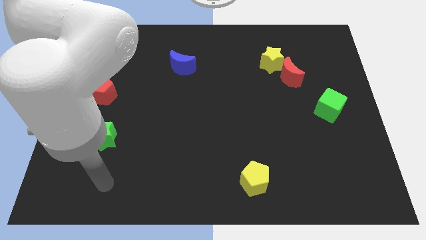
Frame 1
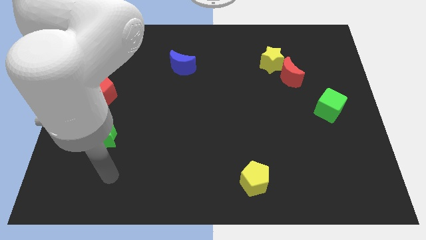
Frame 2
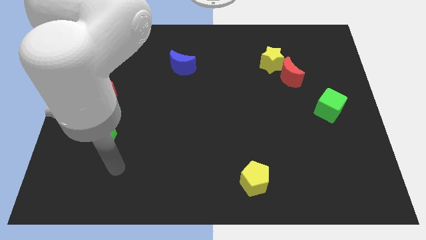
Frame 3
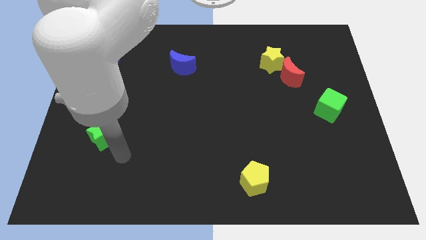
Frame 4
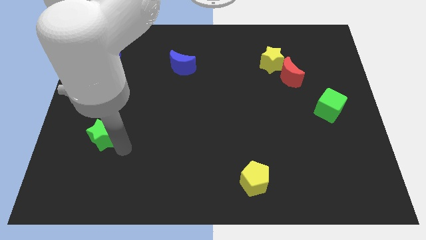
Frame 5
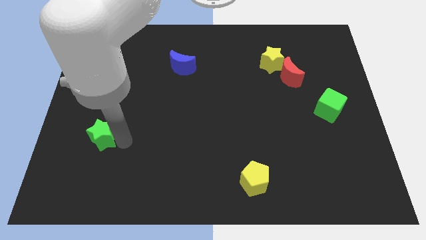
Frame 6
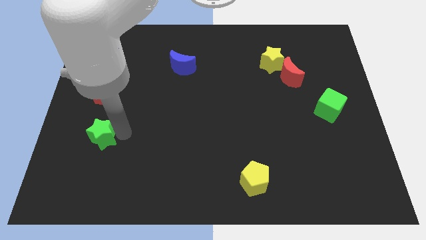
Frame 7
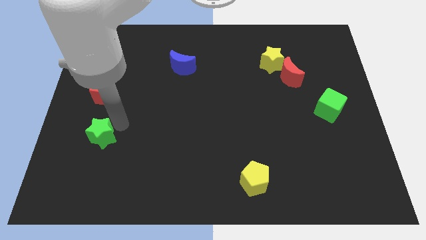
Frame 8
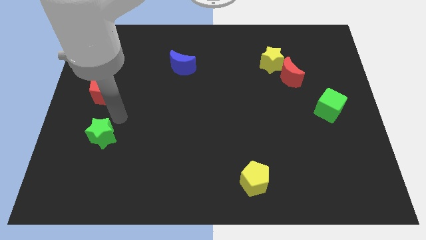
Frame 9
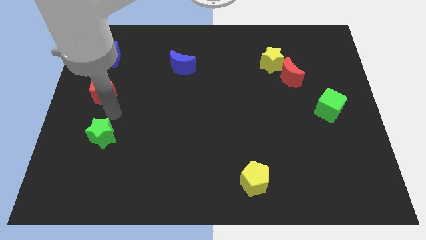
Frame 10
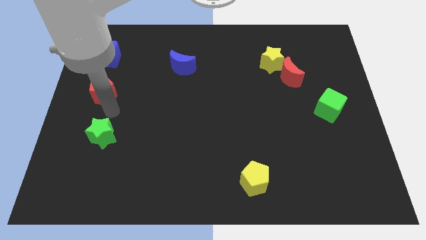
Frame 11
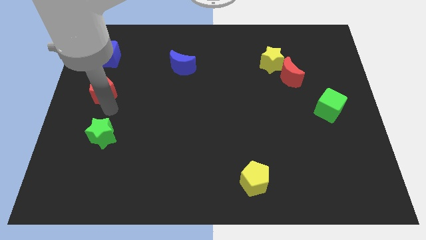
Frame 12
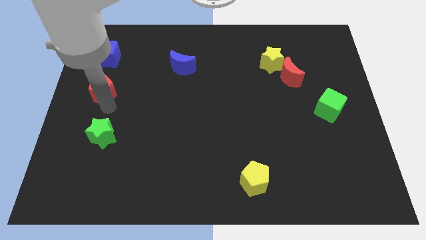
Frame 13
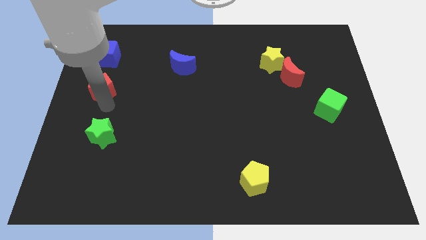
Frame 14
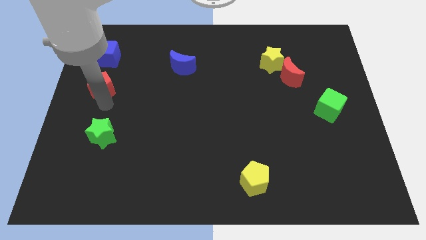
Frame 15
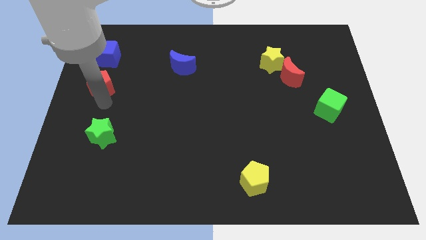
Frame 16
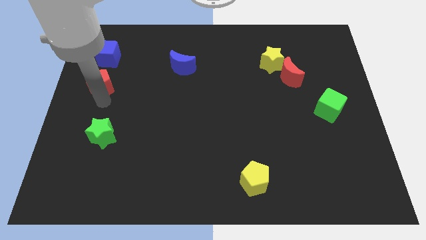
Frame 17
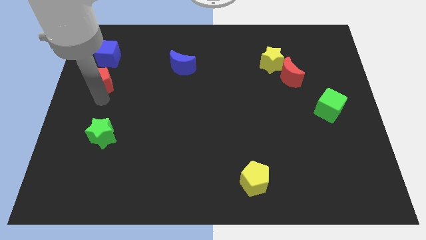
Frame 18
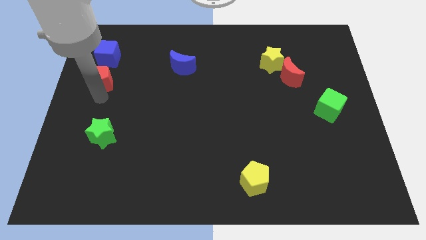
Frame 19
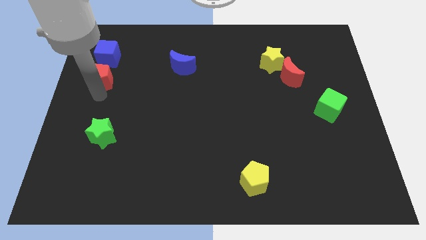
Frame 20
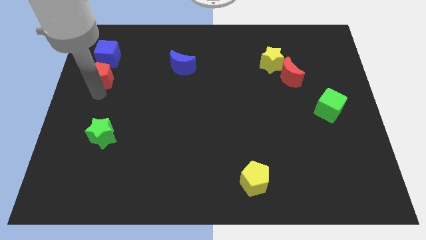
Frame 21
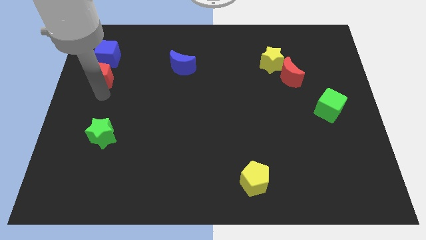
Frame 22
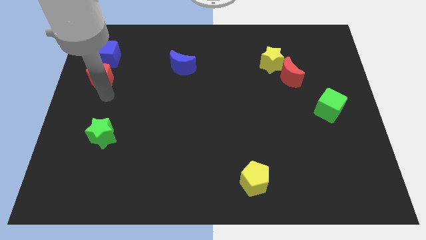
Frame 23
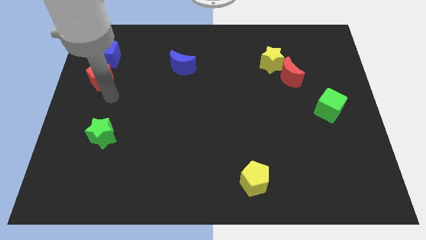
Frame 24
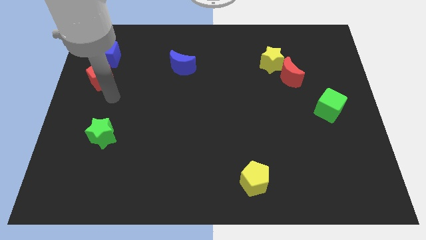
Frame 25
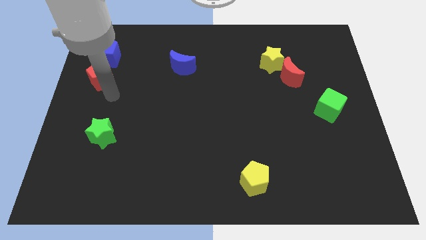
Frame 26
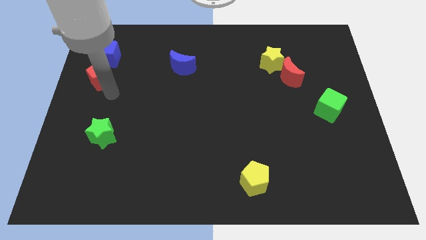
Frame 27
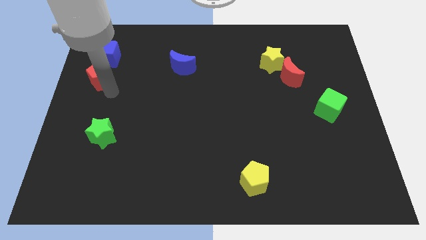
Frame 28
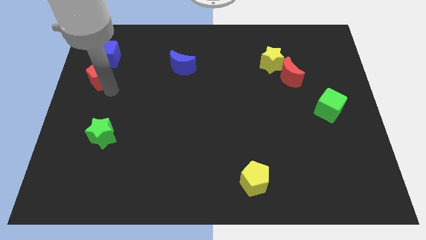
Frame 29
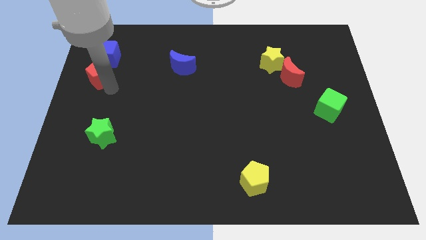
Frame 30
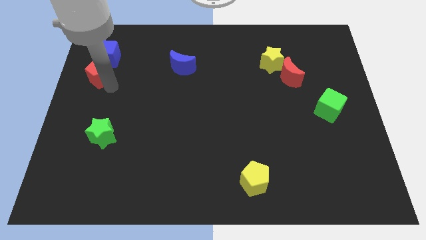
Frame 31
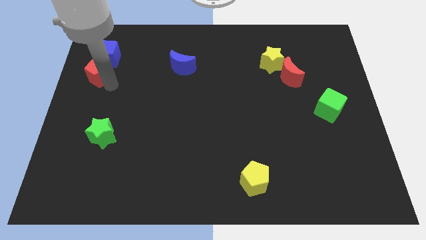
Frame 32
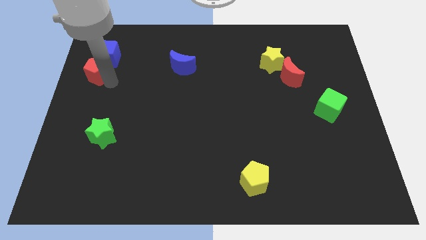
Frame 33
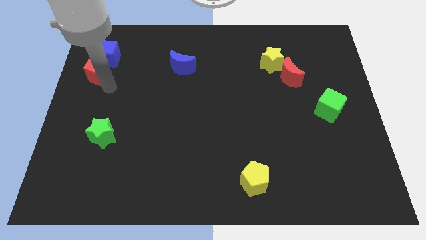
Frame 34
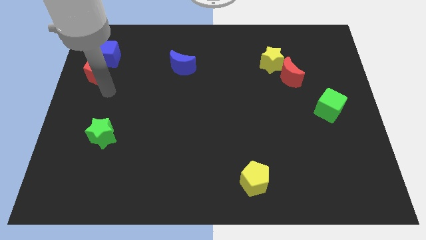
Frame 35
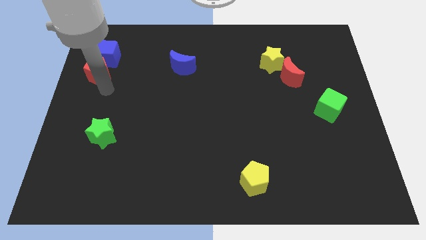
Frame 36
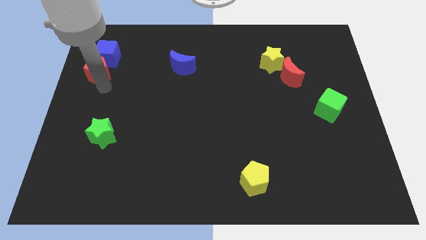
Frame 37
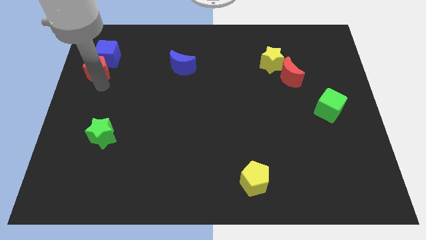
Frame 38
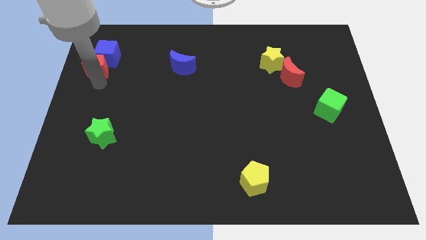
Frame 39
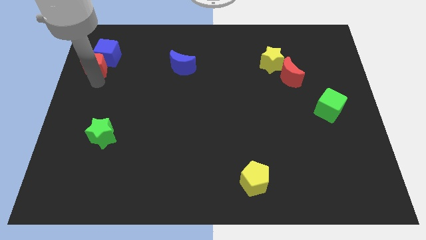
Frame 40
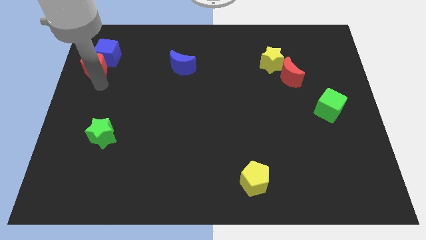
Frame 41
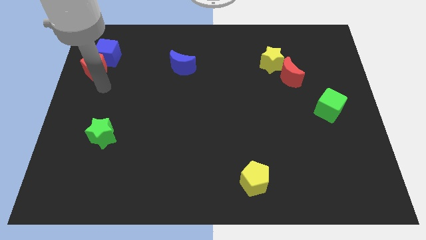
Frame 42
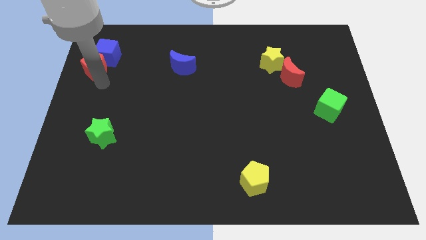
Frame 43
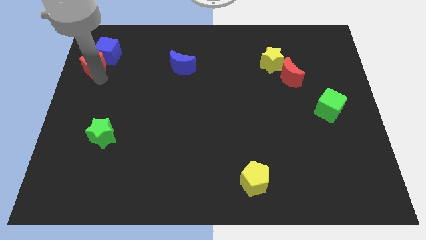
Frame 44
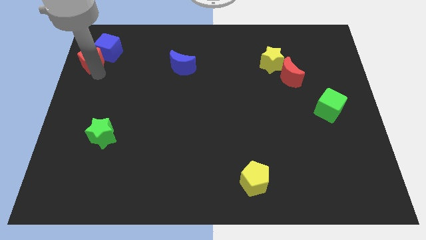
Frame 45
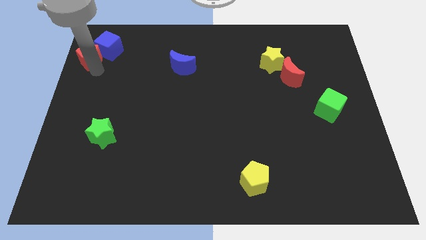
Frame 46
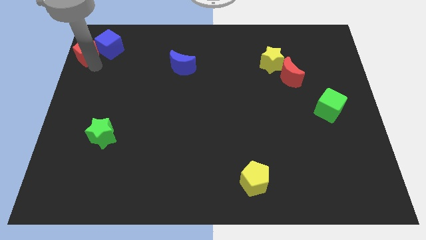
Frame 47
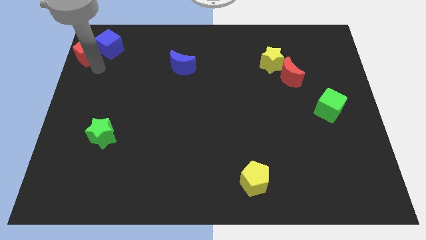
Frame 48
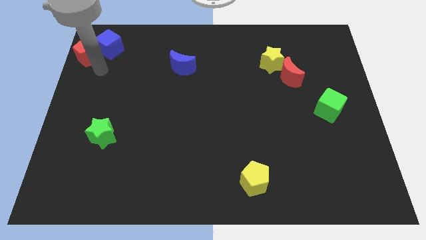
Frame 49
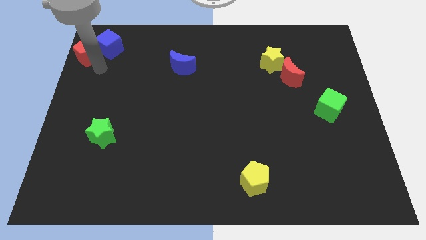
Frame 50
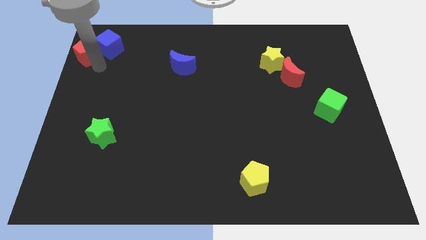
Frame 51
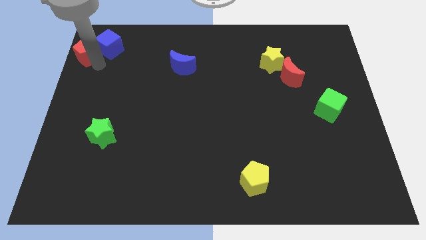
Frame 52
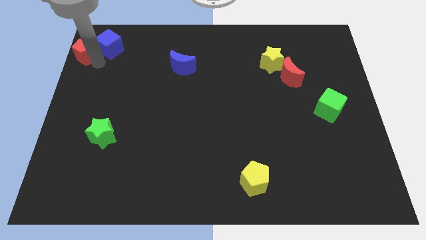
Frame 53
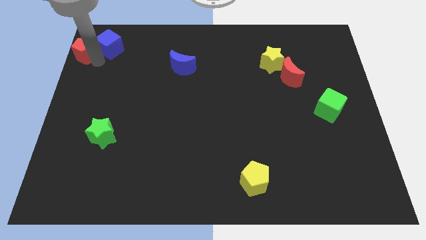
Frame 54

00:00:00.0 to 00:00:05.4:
slide the red pentagon to the upper left corner
